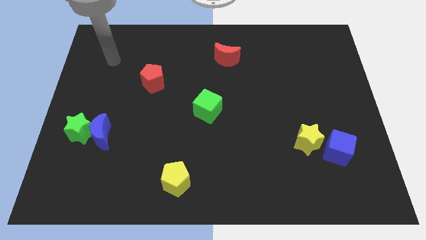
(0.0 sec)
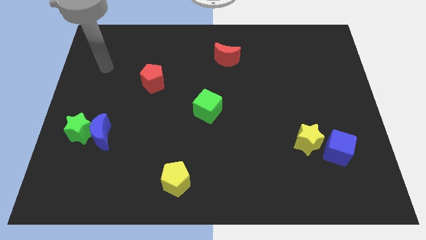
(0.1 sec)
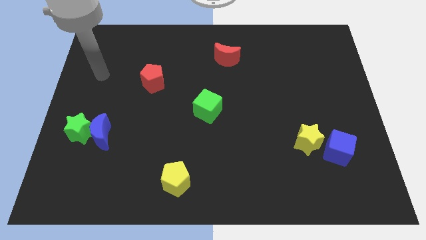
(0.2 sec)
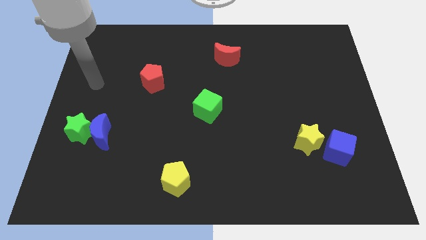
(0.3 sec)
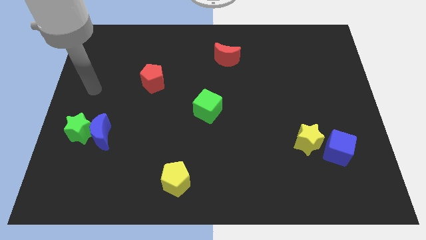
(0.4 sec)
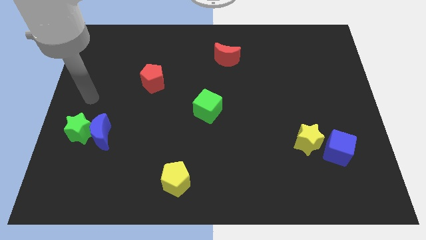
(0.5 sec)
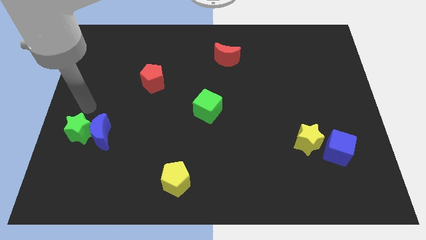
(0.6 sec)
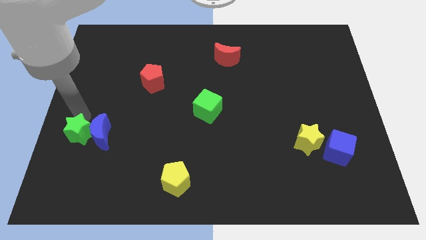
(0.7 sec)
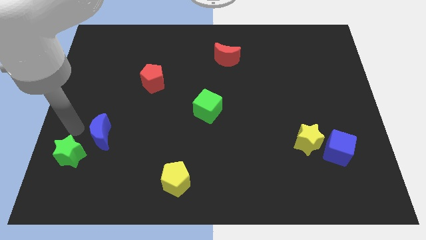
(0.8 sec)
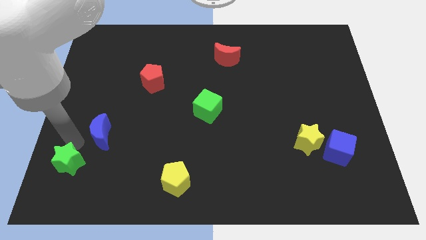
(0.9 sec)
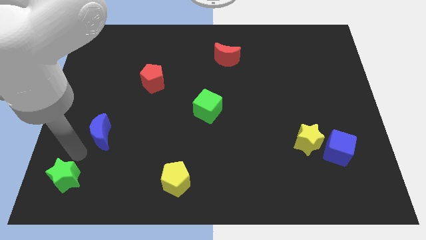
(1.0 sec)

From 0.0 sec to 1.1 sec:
move the blue moon away from the green star

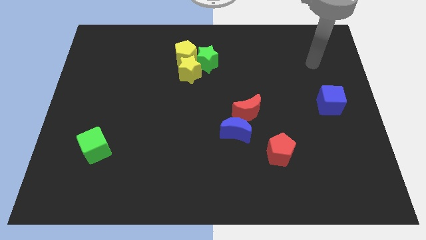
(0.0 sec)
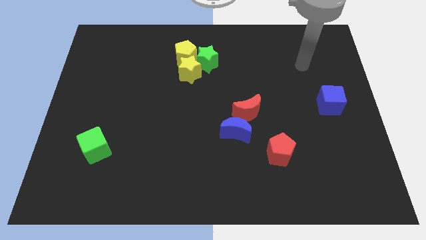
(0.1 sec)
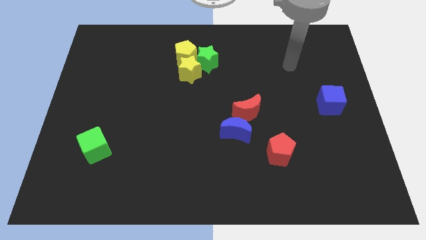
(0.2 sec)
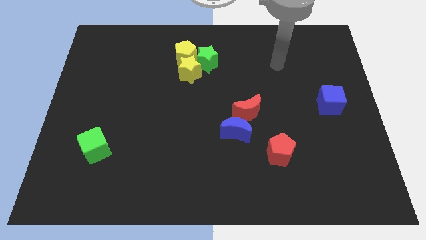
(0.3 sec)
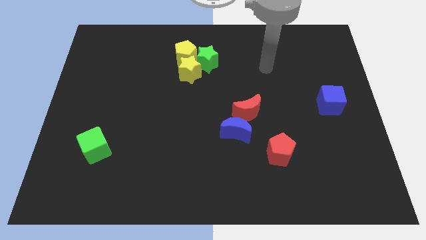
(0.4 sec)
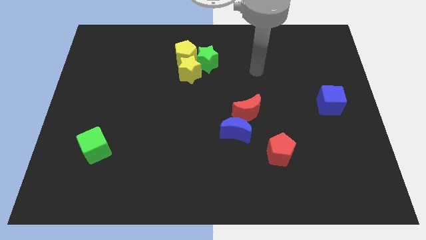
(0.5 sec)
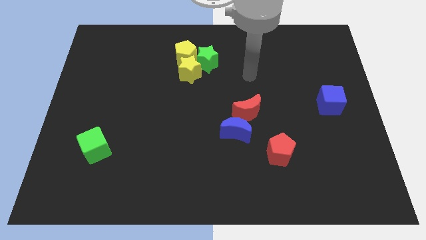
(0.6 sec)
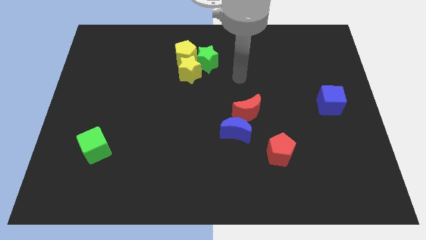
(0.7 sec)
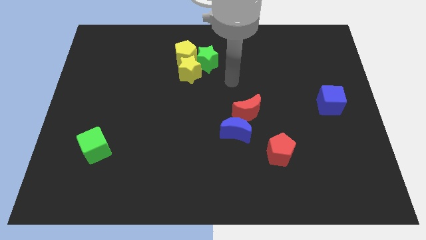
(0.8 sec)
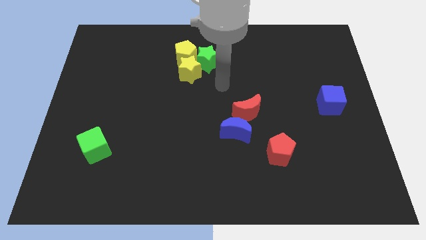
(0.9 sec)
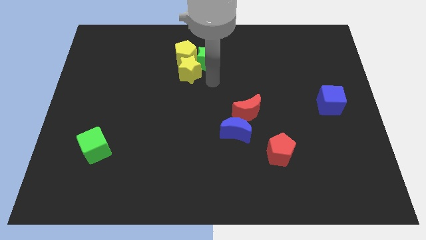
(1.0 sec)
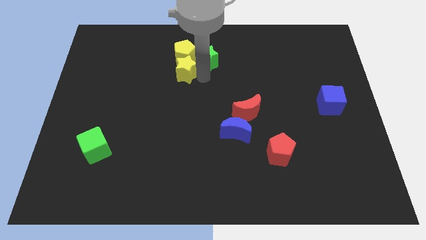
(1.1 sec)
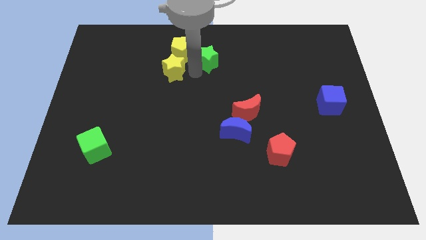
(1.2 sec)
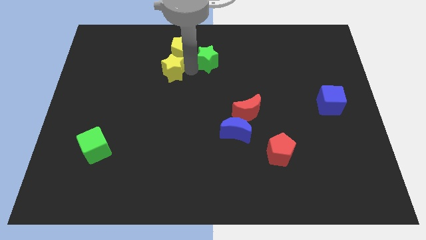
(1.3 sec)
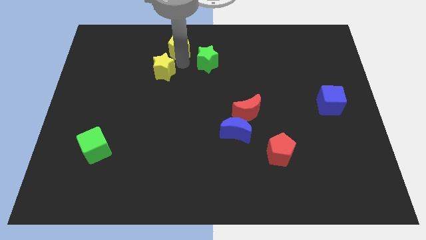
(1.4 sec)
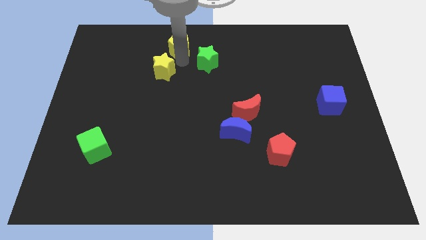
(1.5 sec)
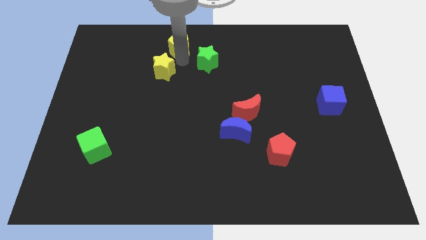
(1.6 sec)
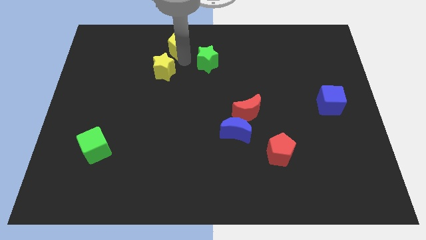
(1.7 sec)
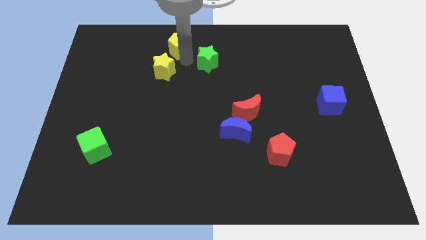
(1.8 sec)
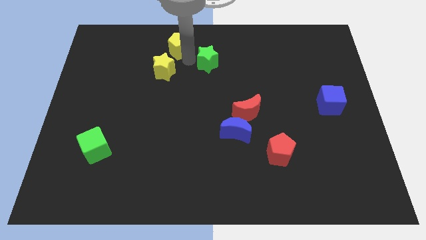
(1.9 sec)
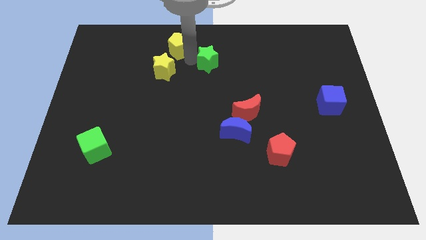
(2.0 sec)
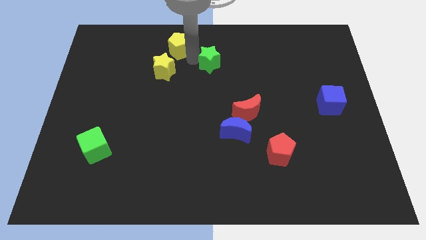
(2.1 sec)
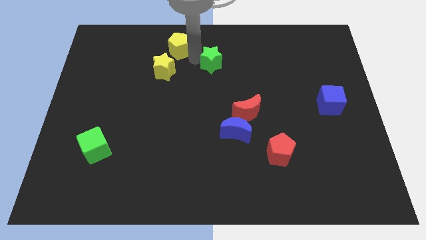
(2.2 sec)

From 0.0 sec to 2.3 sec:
pull the green star apart from the yellow pentagon and yellow star

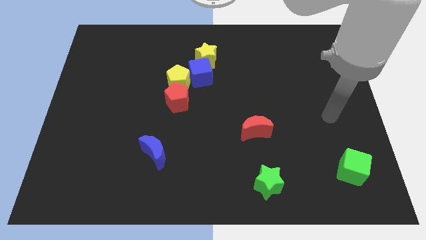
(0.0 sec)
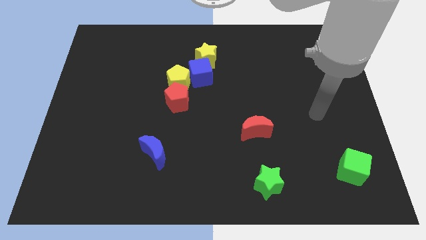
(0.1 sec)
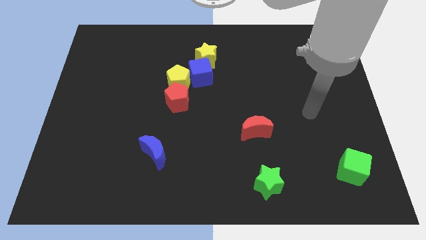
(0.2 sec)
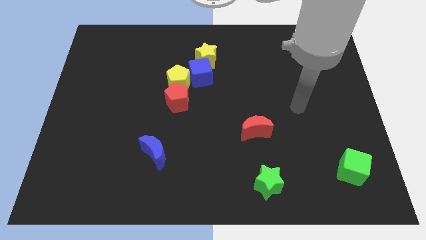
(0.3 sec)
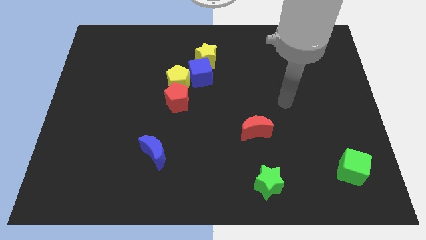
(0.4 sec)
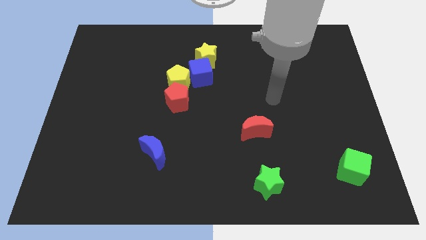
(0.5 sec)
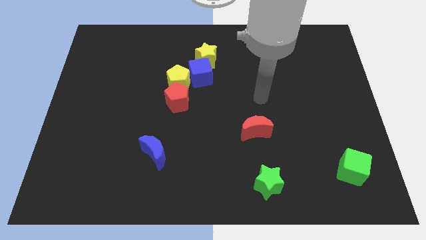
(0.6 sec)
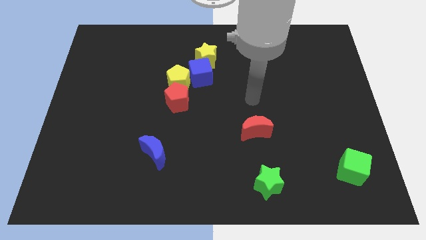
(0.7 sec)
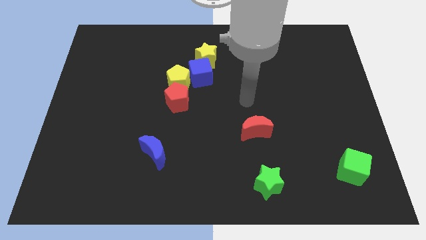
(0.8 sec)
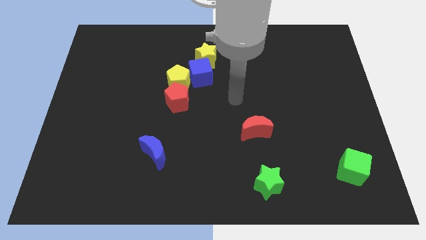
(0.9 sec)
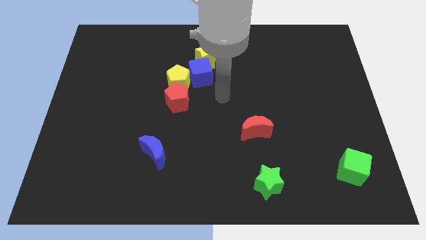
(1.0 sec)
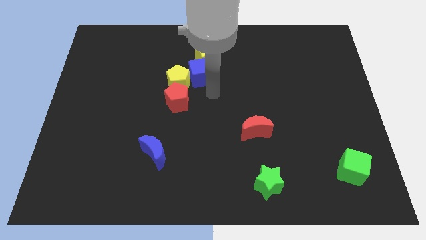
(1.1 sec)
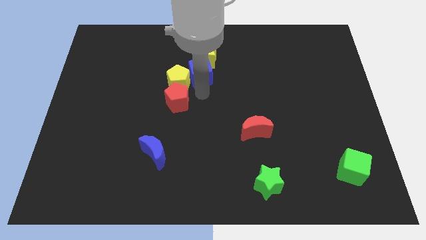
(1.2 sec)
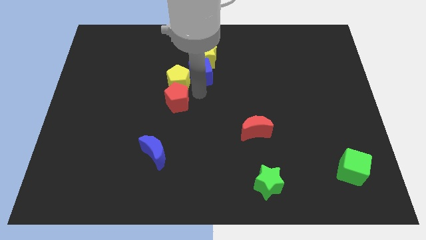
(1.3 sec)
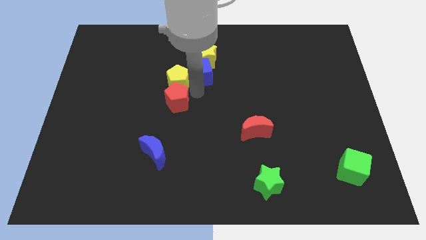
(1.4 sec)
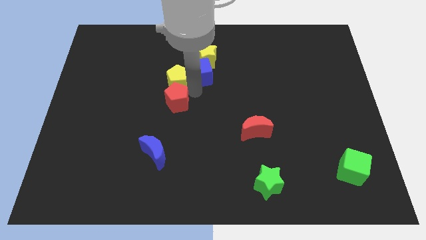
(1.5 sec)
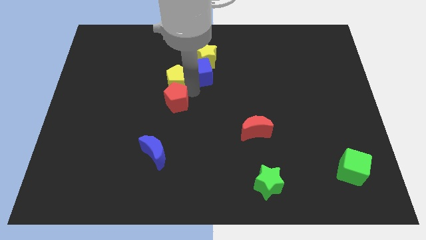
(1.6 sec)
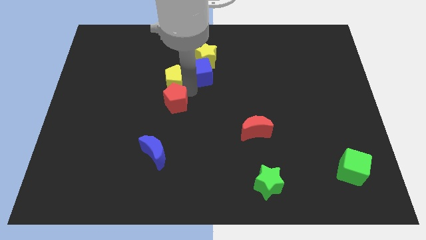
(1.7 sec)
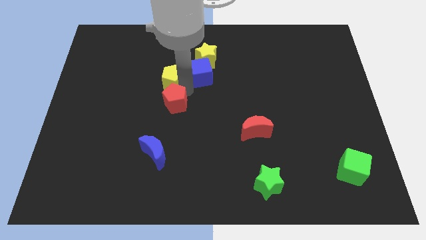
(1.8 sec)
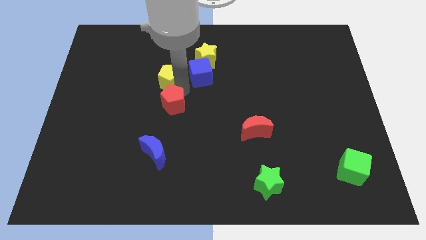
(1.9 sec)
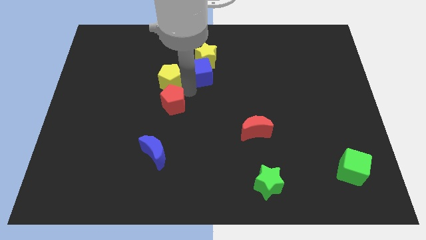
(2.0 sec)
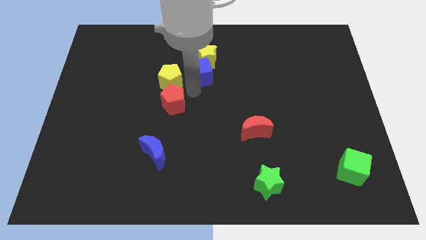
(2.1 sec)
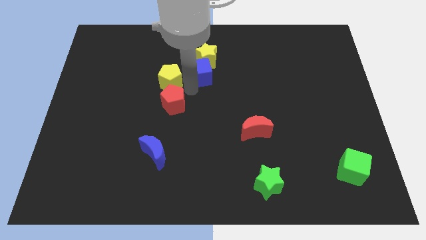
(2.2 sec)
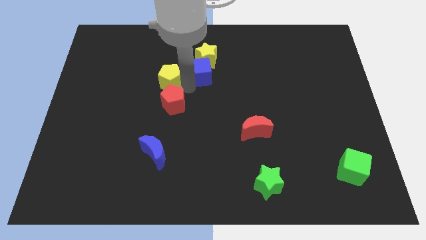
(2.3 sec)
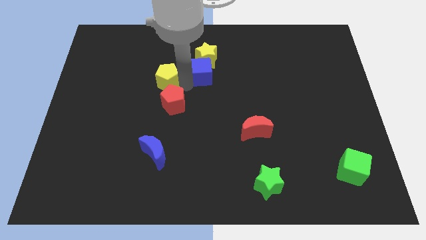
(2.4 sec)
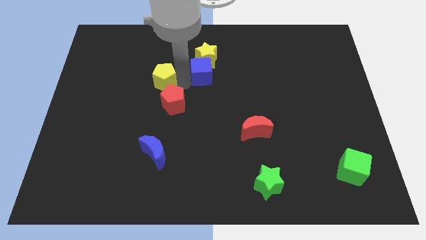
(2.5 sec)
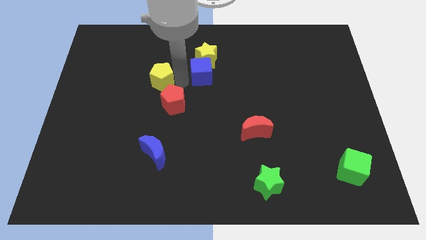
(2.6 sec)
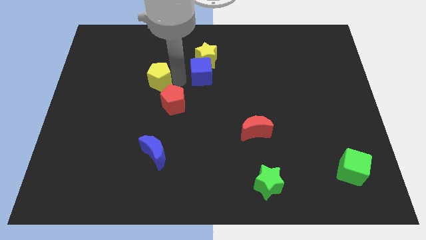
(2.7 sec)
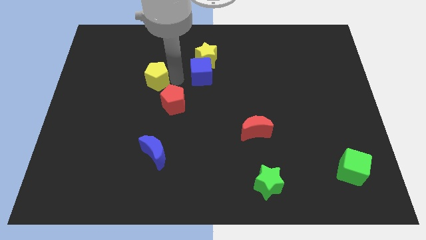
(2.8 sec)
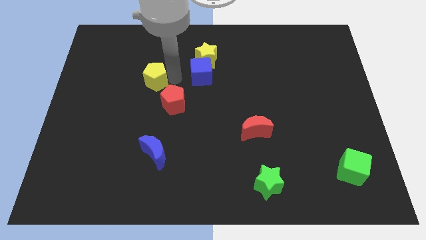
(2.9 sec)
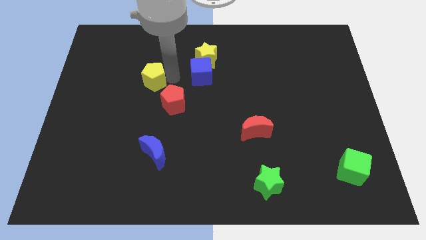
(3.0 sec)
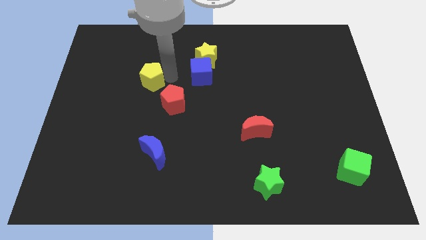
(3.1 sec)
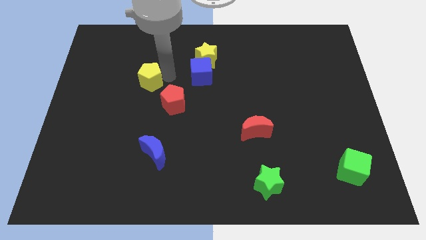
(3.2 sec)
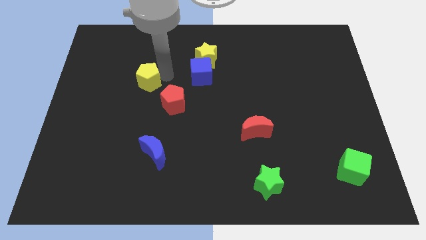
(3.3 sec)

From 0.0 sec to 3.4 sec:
separate the yellow pentagon from the blue cube and red pentagon

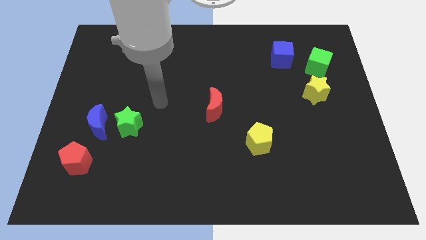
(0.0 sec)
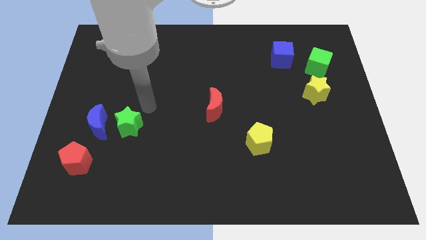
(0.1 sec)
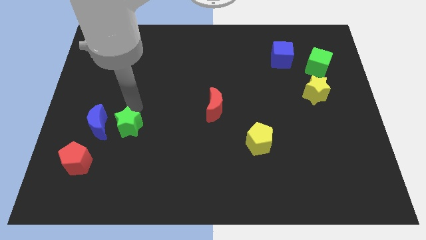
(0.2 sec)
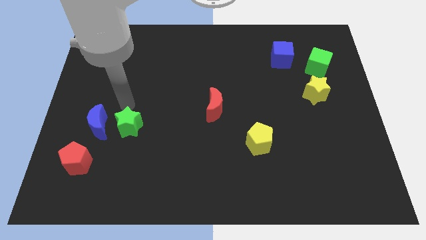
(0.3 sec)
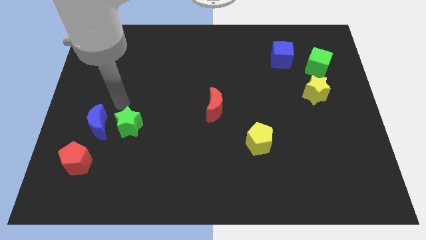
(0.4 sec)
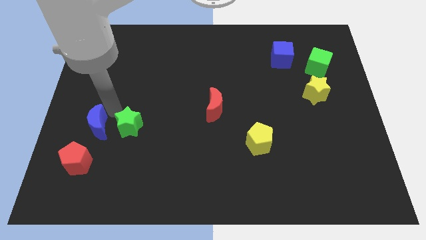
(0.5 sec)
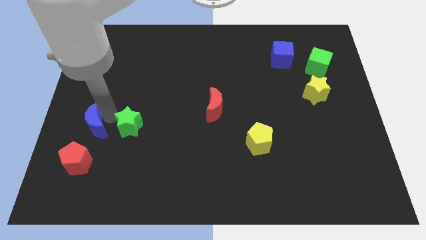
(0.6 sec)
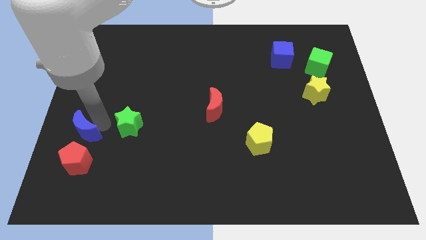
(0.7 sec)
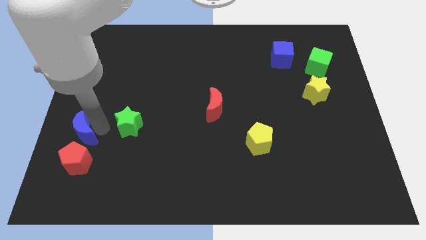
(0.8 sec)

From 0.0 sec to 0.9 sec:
move the green star away from the blue moon

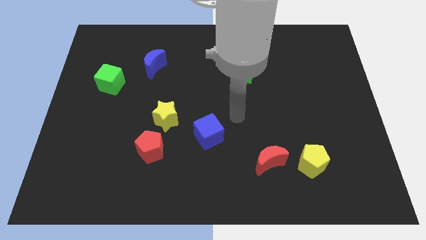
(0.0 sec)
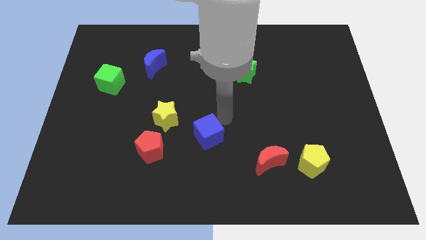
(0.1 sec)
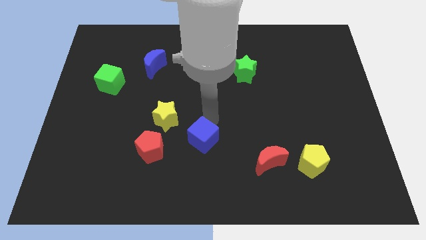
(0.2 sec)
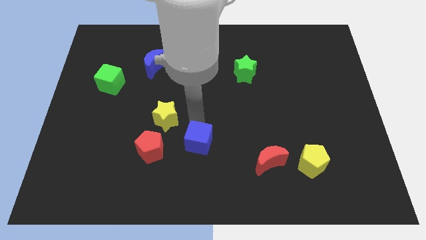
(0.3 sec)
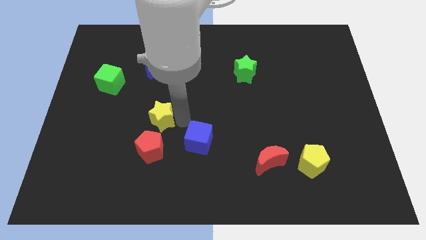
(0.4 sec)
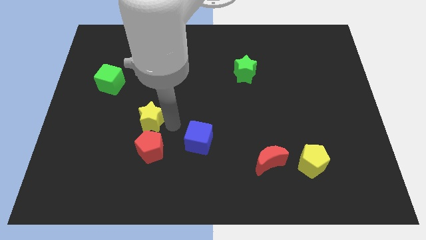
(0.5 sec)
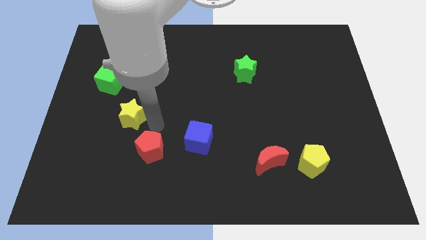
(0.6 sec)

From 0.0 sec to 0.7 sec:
separate the red pentagon from the yellow star

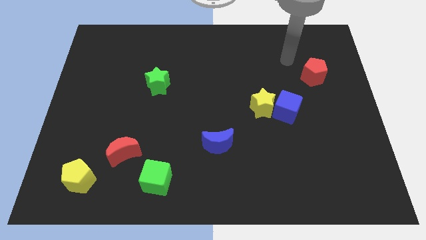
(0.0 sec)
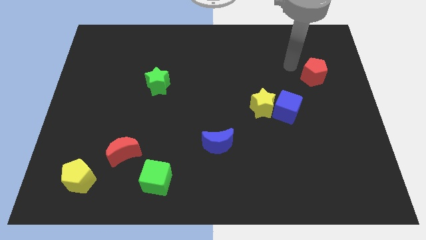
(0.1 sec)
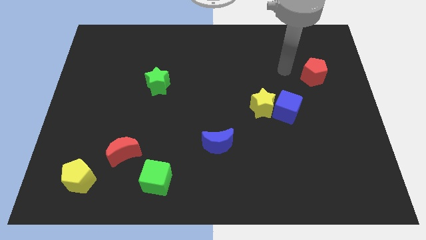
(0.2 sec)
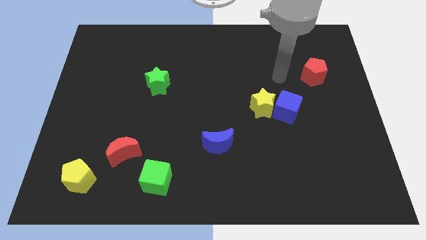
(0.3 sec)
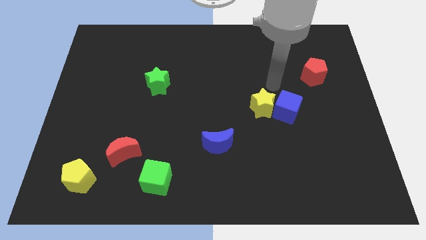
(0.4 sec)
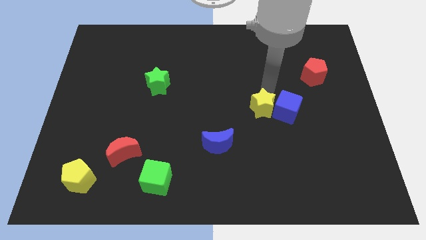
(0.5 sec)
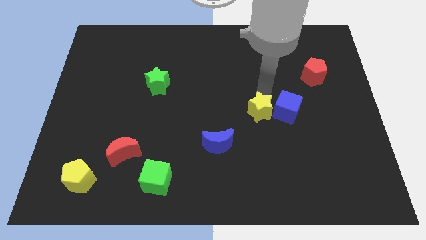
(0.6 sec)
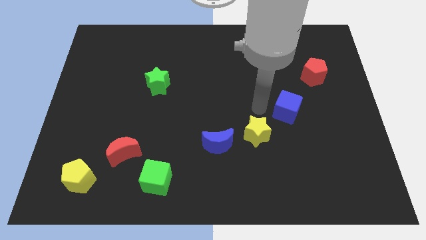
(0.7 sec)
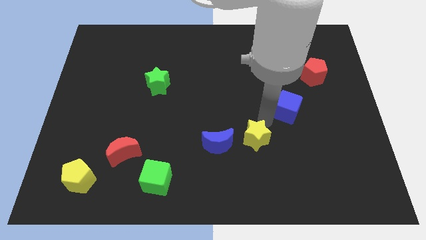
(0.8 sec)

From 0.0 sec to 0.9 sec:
move the blue cube away from the yellow star
